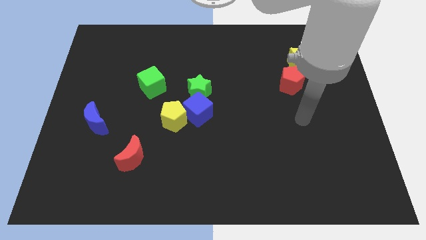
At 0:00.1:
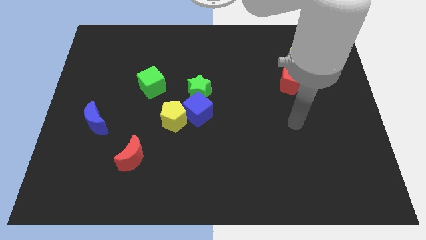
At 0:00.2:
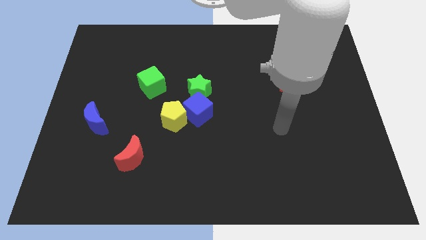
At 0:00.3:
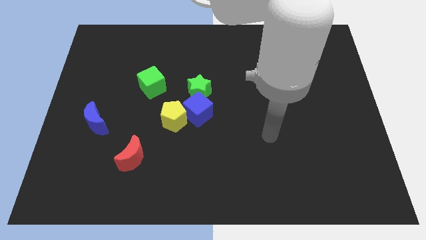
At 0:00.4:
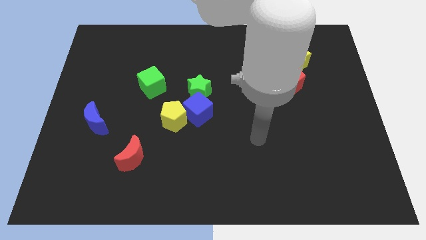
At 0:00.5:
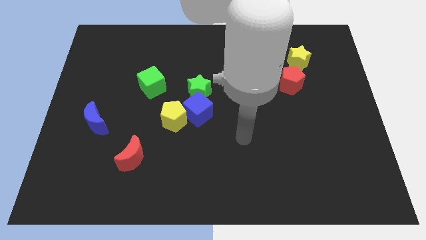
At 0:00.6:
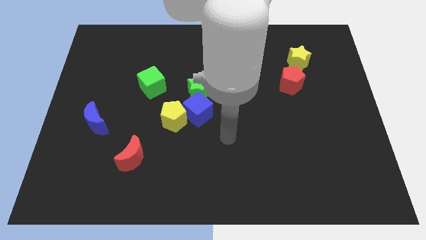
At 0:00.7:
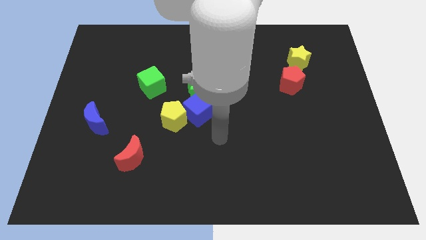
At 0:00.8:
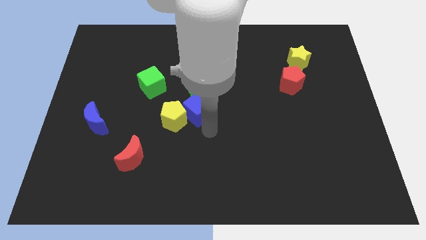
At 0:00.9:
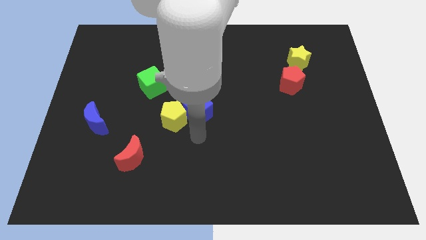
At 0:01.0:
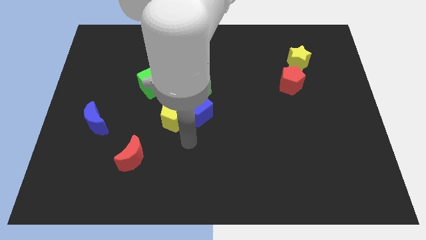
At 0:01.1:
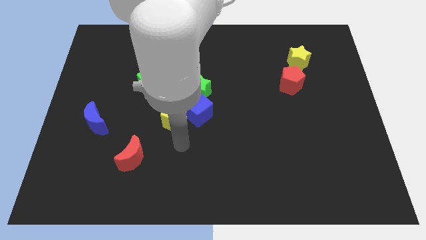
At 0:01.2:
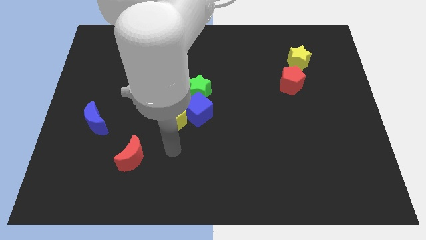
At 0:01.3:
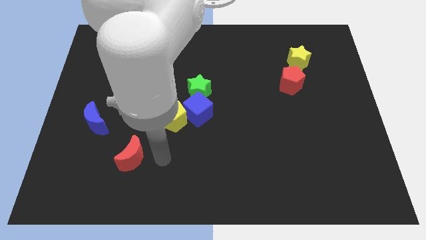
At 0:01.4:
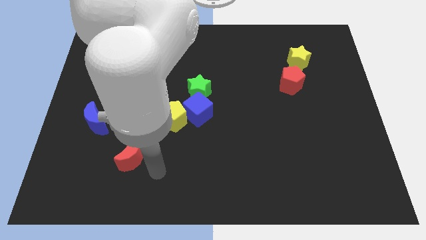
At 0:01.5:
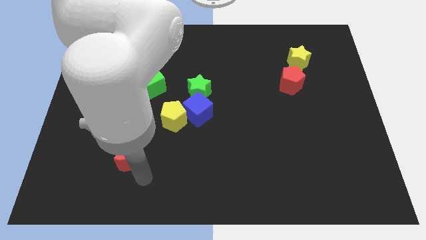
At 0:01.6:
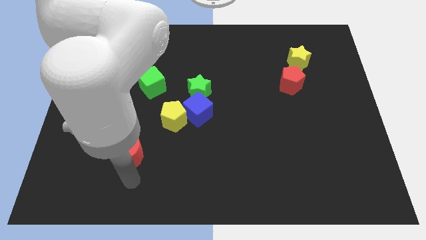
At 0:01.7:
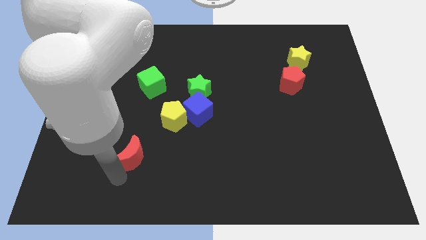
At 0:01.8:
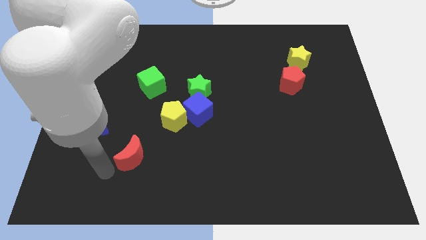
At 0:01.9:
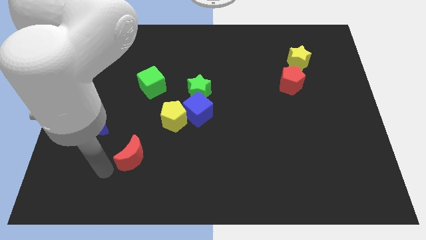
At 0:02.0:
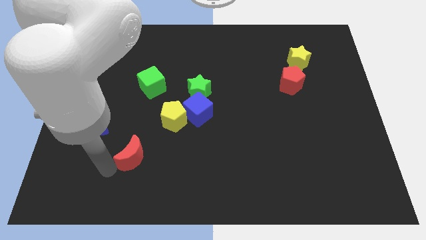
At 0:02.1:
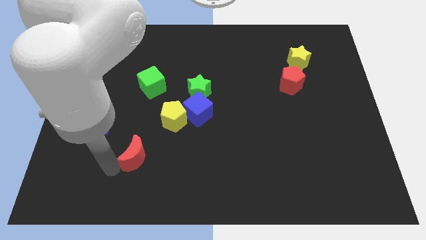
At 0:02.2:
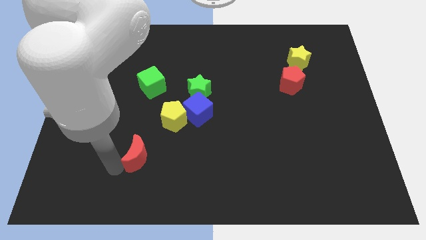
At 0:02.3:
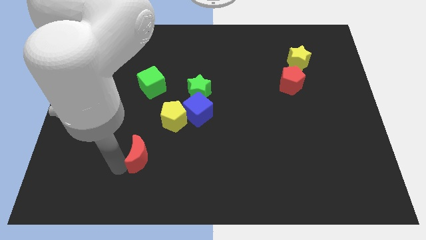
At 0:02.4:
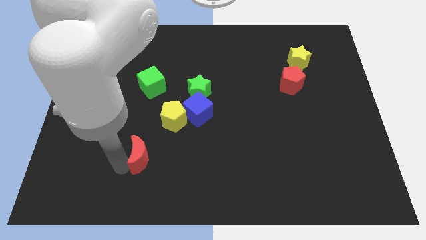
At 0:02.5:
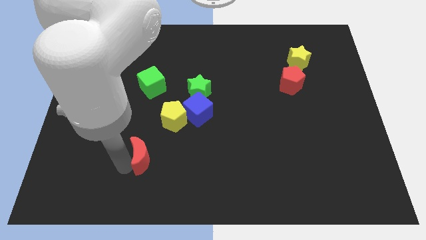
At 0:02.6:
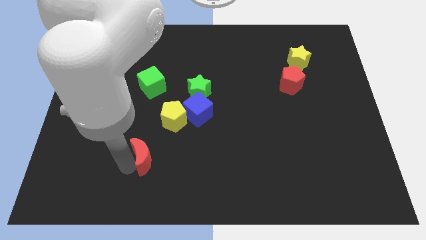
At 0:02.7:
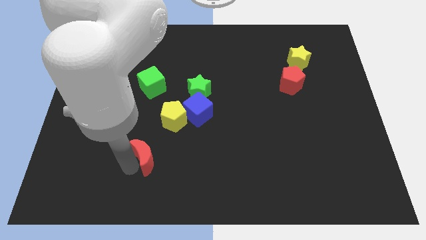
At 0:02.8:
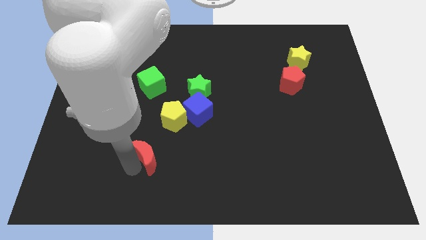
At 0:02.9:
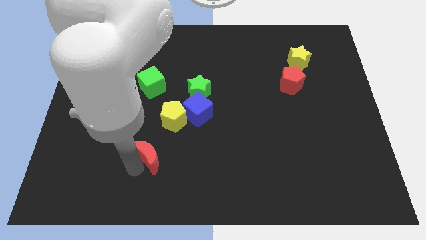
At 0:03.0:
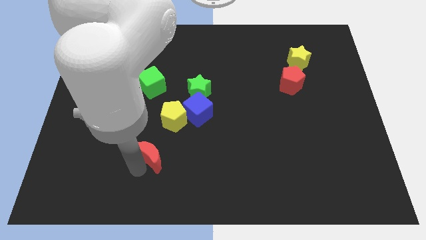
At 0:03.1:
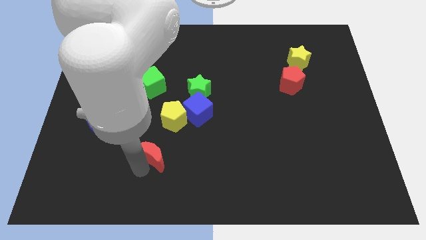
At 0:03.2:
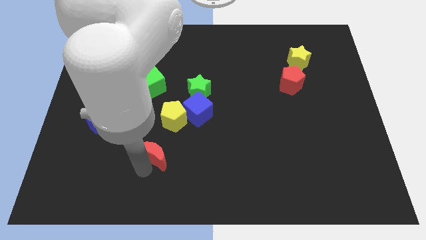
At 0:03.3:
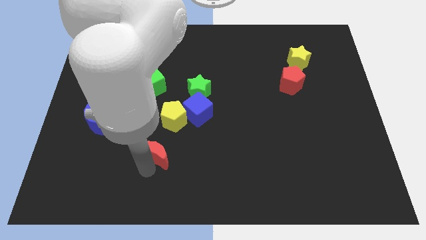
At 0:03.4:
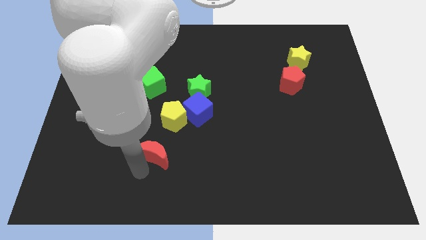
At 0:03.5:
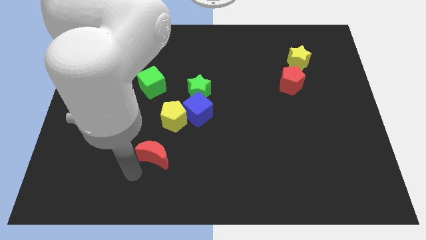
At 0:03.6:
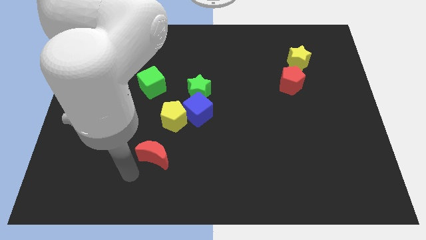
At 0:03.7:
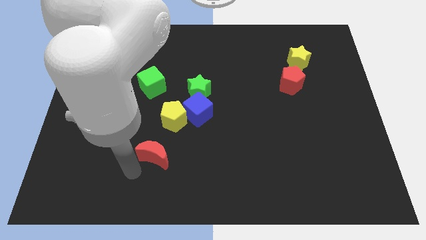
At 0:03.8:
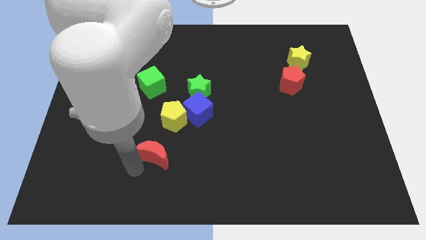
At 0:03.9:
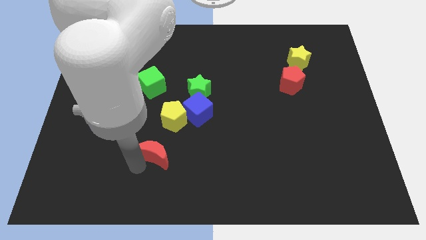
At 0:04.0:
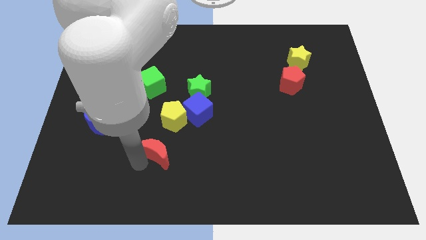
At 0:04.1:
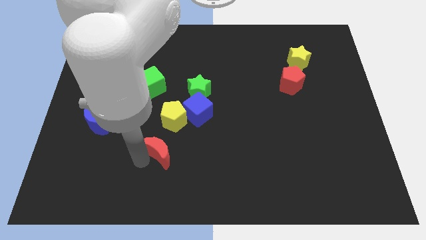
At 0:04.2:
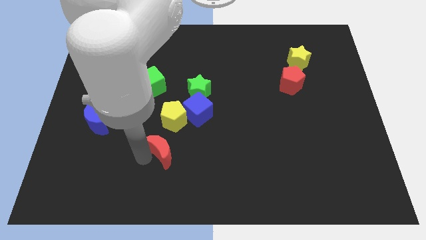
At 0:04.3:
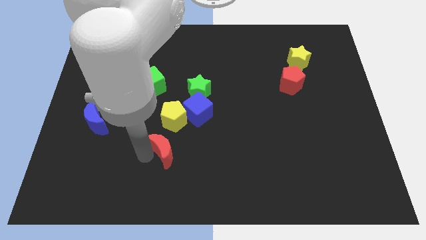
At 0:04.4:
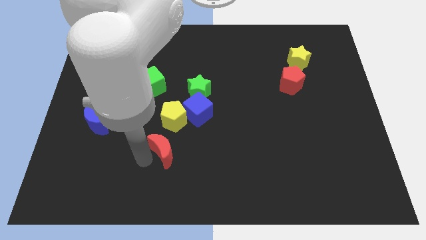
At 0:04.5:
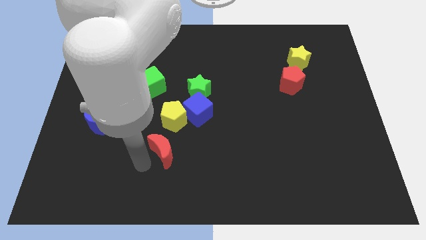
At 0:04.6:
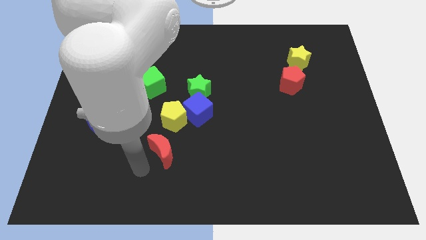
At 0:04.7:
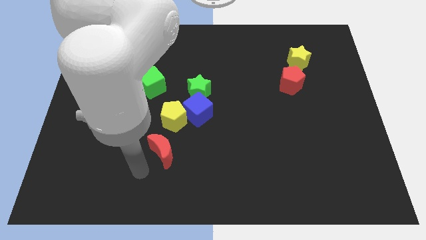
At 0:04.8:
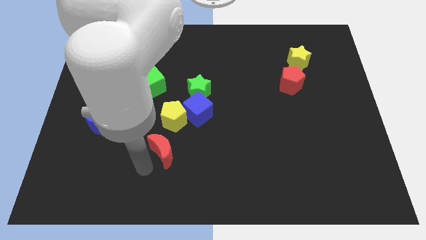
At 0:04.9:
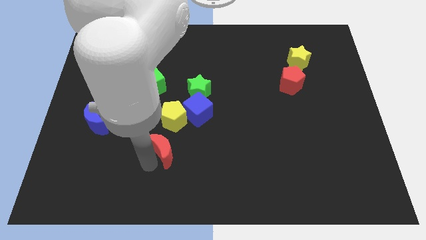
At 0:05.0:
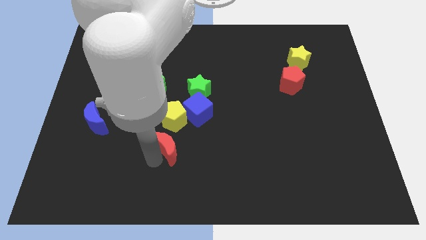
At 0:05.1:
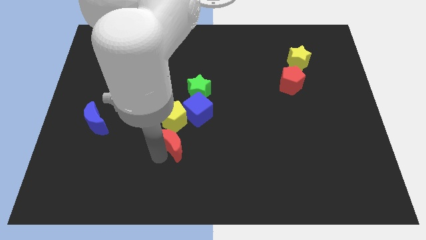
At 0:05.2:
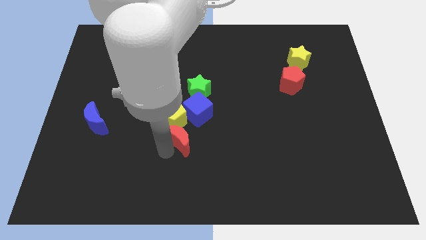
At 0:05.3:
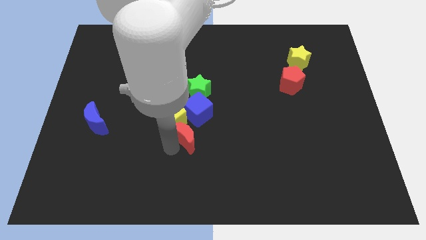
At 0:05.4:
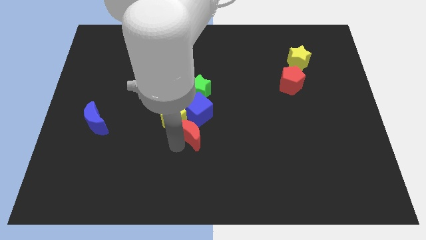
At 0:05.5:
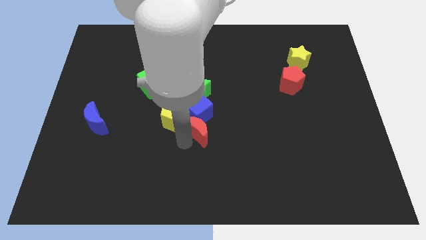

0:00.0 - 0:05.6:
push the red moon towards the blue cube

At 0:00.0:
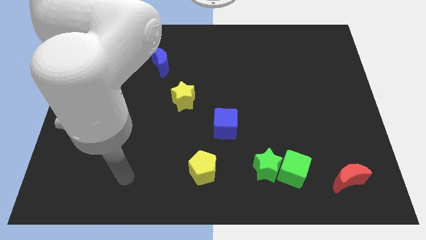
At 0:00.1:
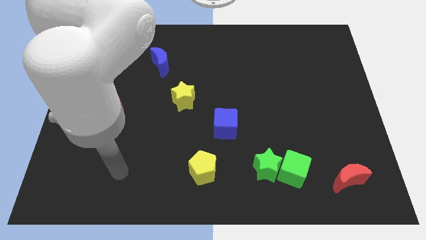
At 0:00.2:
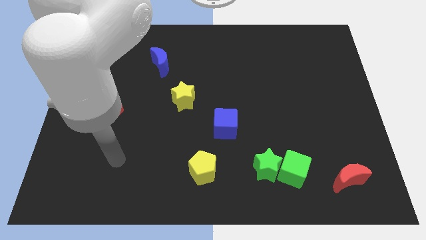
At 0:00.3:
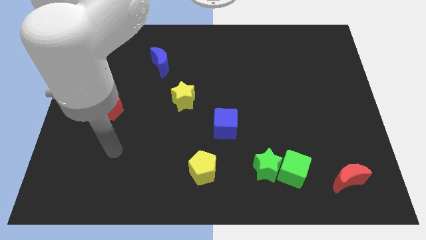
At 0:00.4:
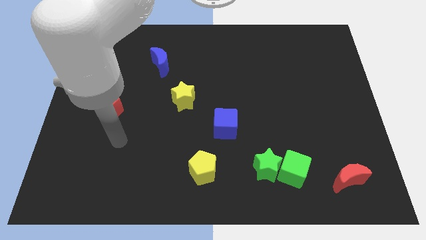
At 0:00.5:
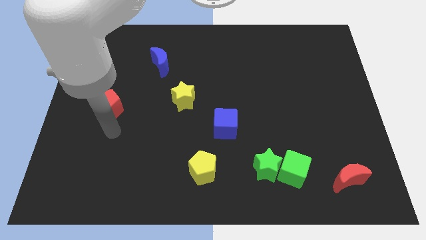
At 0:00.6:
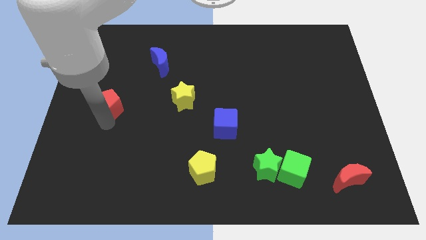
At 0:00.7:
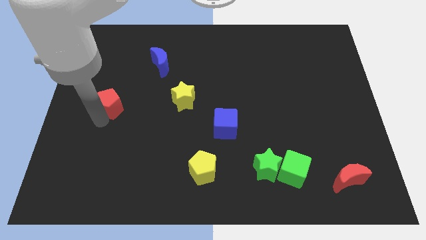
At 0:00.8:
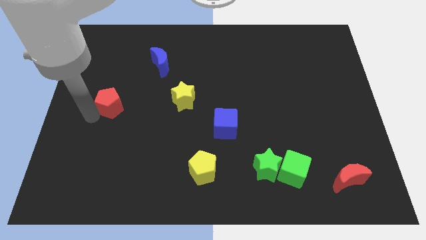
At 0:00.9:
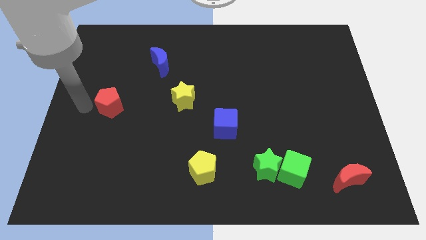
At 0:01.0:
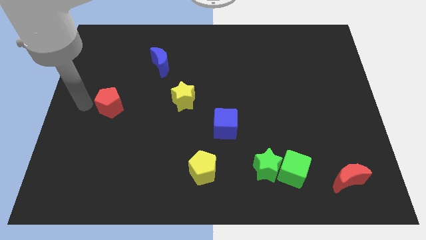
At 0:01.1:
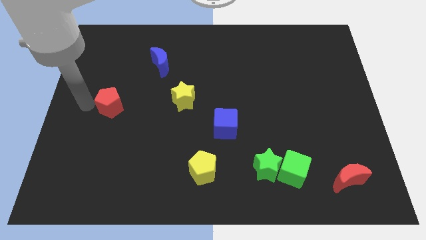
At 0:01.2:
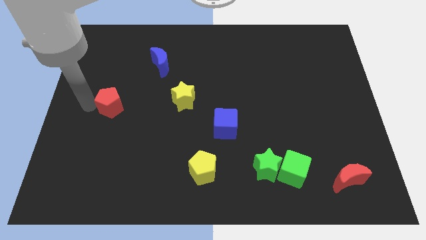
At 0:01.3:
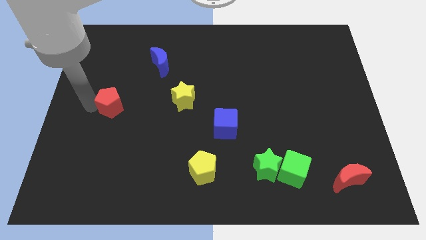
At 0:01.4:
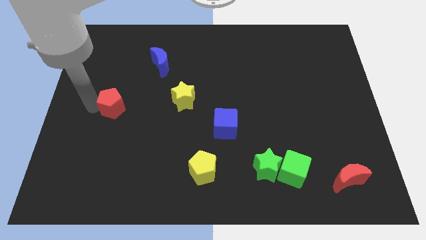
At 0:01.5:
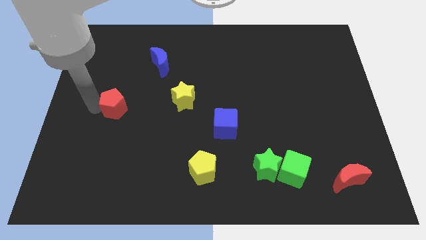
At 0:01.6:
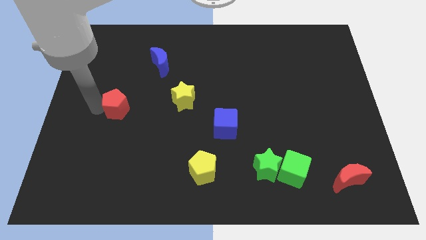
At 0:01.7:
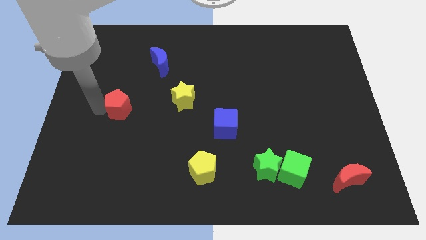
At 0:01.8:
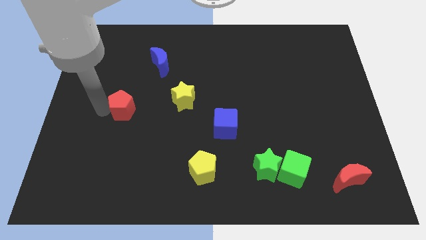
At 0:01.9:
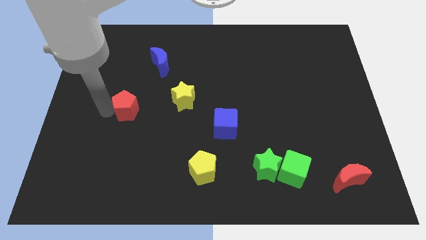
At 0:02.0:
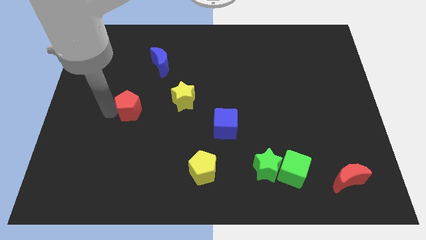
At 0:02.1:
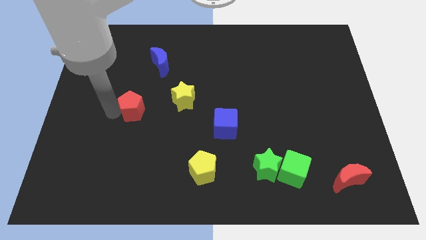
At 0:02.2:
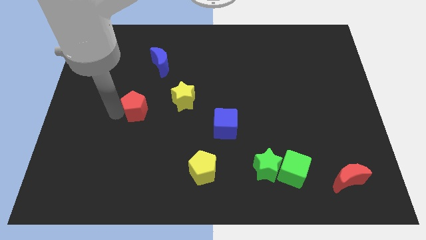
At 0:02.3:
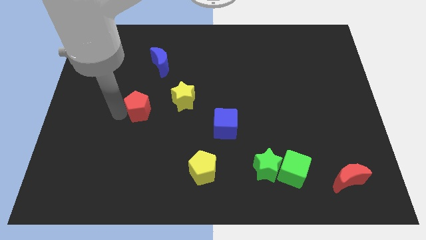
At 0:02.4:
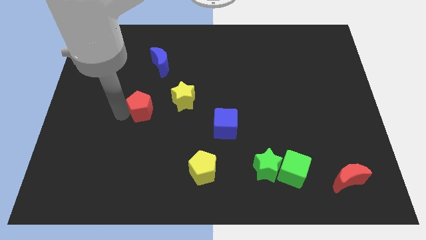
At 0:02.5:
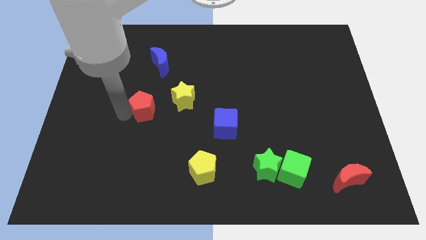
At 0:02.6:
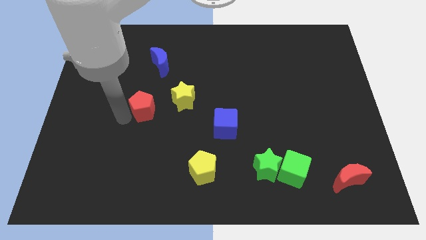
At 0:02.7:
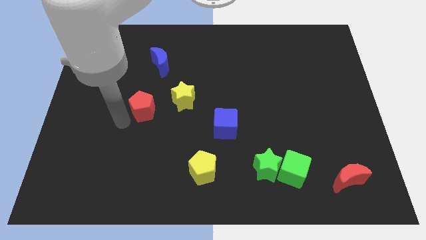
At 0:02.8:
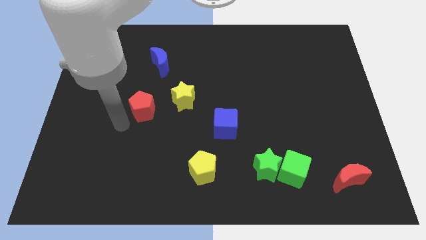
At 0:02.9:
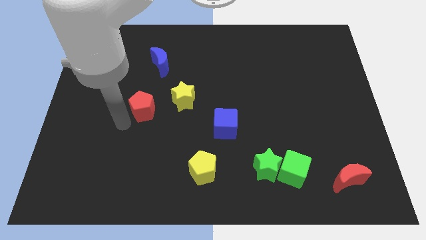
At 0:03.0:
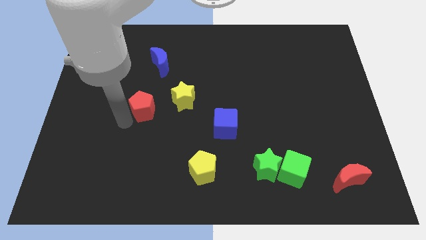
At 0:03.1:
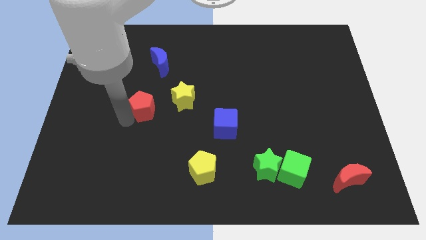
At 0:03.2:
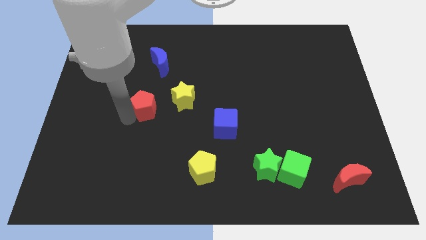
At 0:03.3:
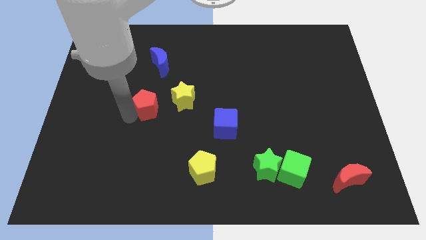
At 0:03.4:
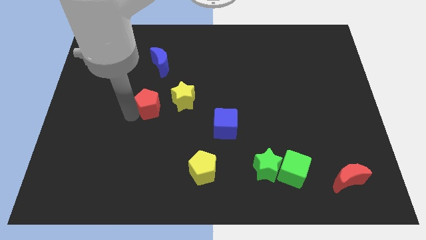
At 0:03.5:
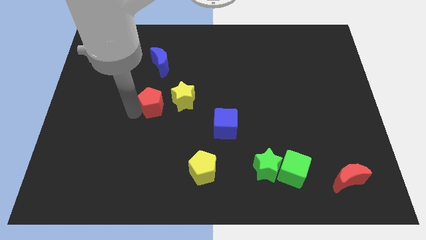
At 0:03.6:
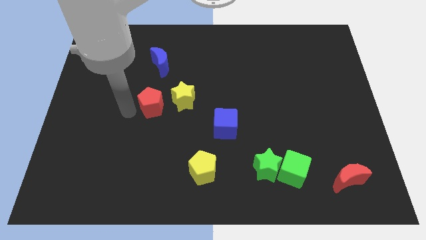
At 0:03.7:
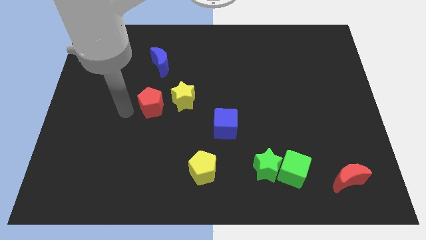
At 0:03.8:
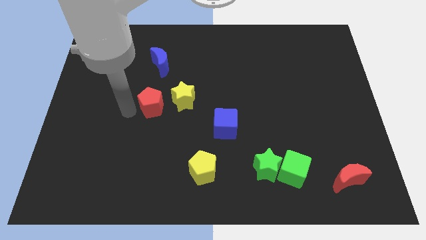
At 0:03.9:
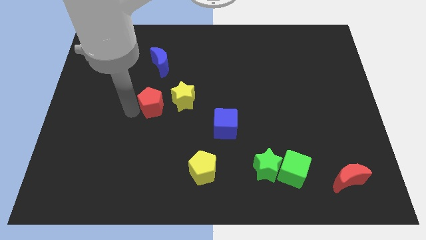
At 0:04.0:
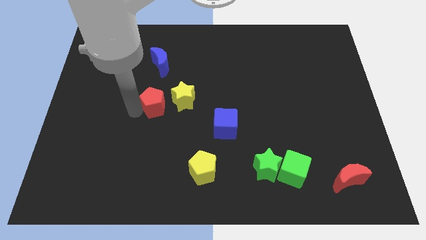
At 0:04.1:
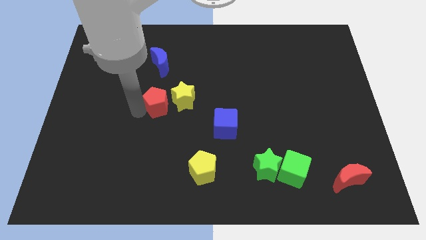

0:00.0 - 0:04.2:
move the red pentagon to the yellow star
